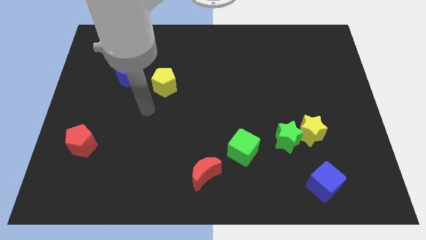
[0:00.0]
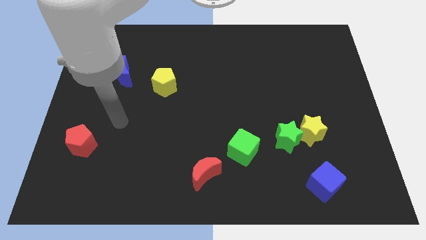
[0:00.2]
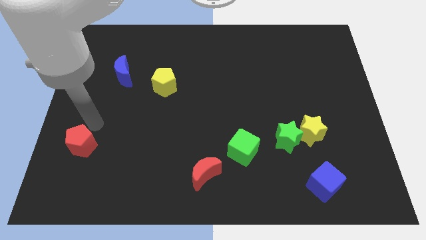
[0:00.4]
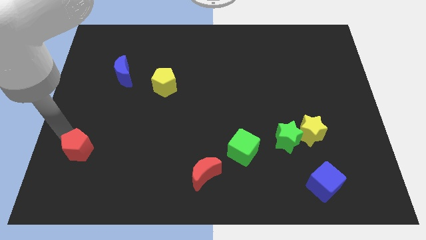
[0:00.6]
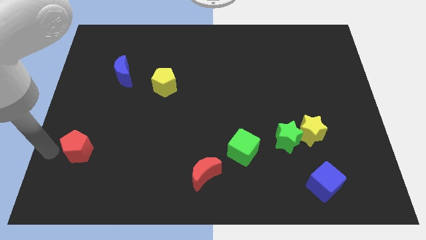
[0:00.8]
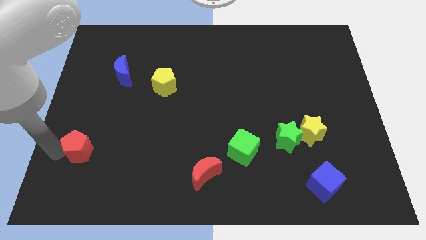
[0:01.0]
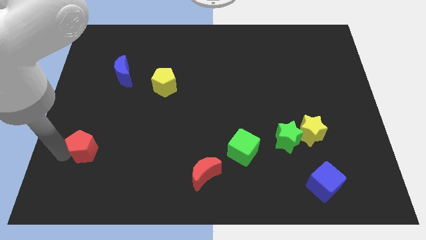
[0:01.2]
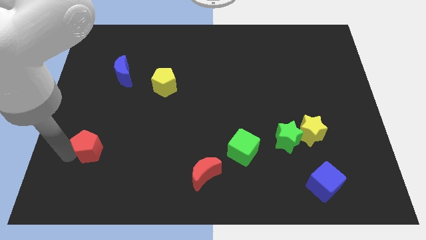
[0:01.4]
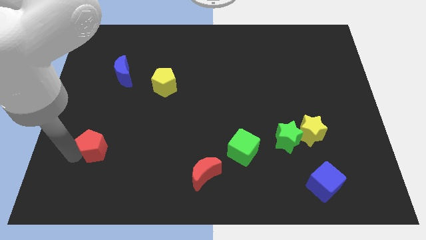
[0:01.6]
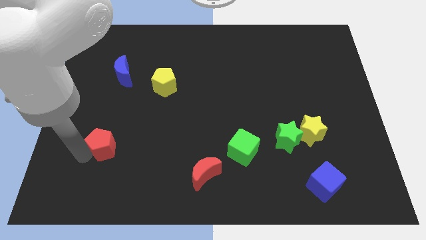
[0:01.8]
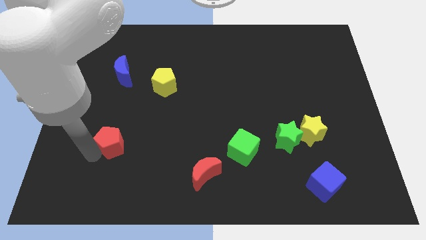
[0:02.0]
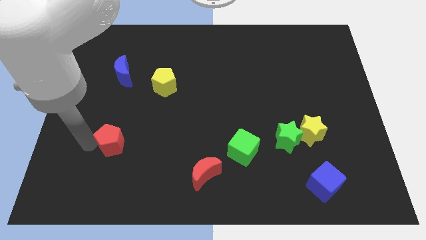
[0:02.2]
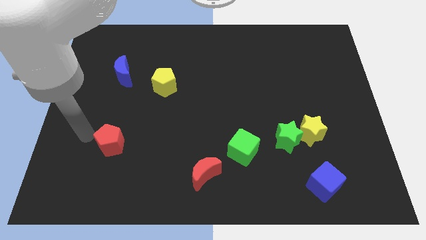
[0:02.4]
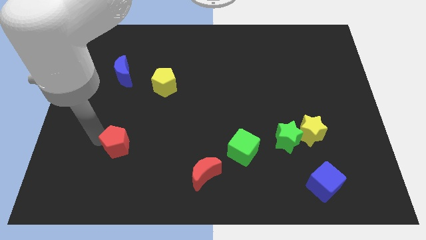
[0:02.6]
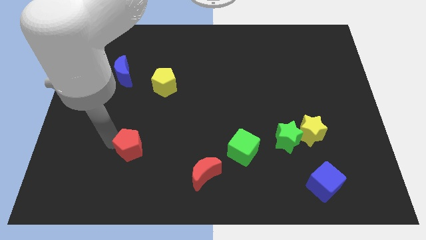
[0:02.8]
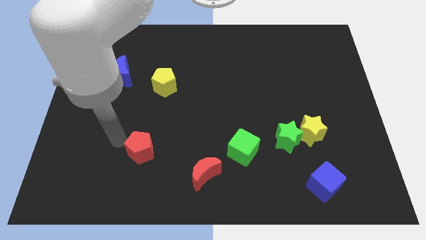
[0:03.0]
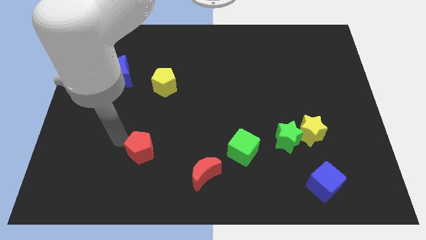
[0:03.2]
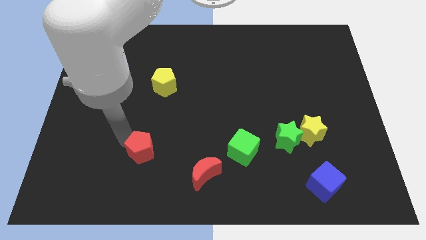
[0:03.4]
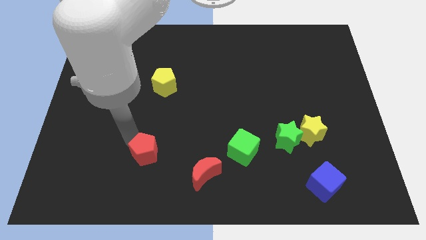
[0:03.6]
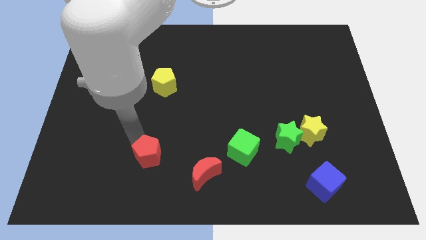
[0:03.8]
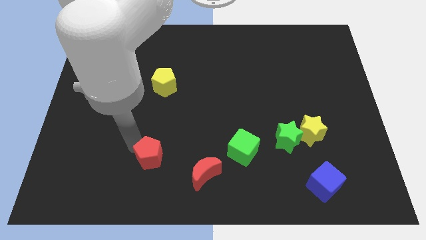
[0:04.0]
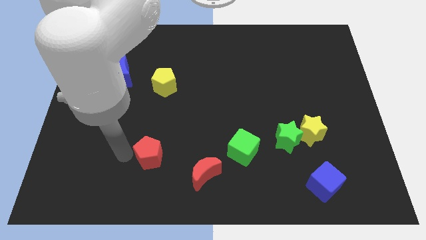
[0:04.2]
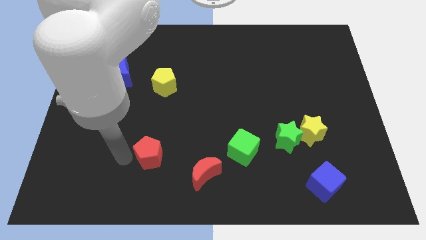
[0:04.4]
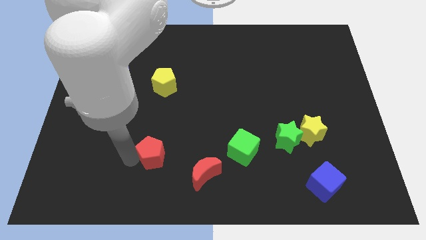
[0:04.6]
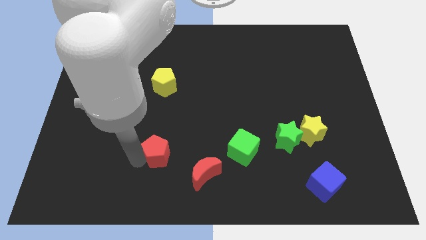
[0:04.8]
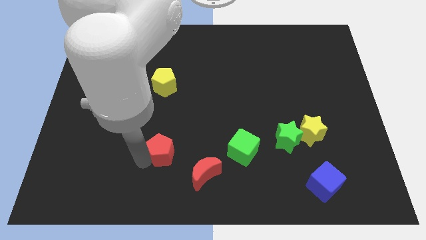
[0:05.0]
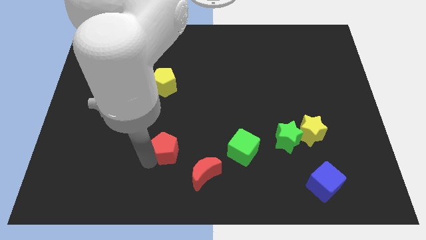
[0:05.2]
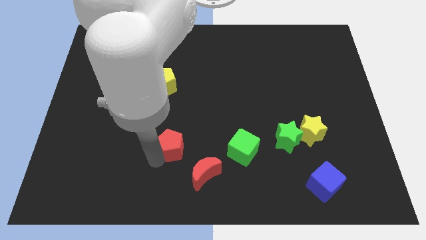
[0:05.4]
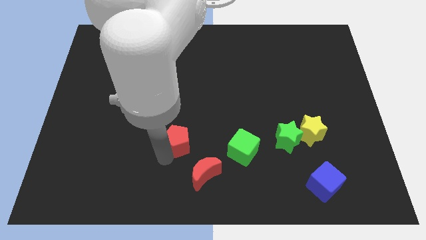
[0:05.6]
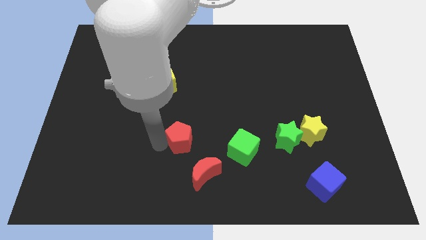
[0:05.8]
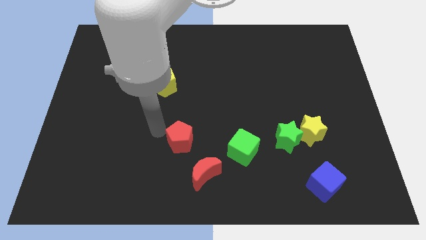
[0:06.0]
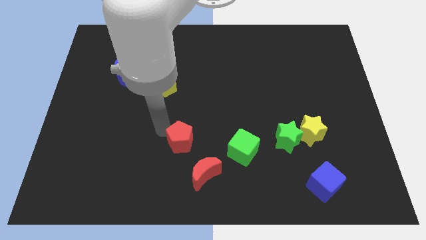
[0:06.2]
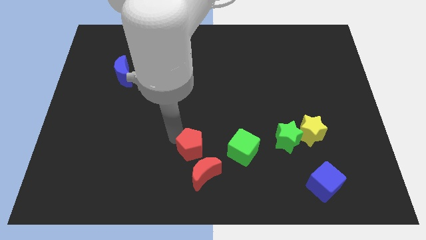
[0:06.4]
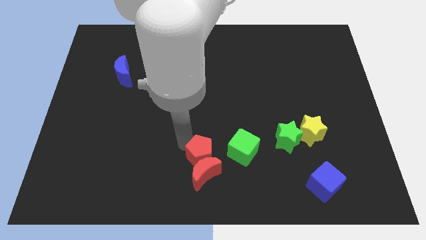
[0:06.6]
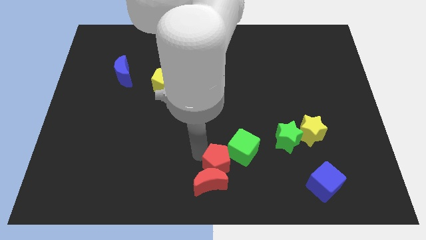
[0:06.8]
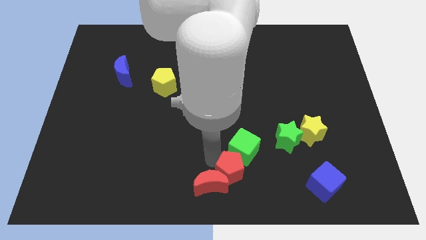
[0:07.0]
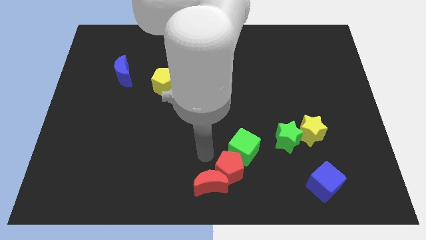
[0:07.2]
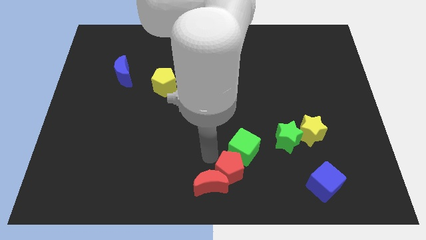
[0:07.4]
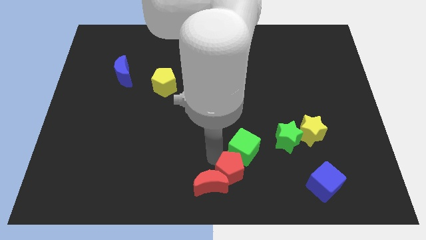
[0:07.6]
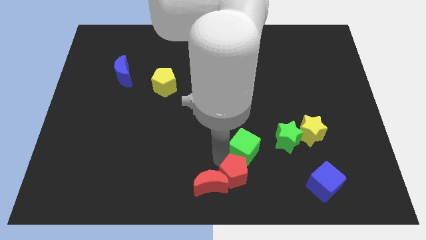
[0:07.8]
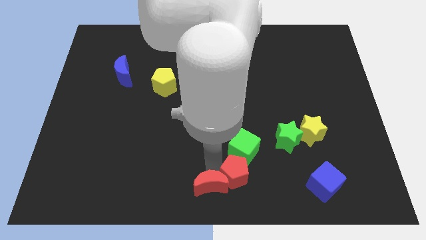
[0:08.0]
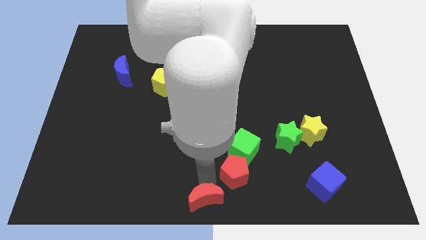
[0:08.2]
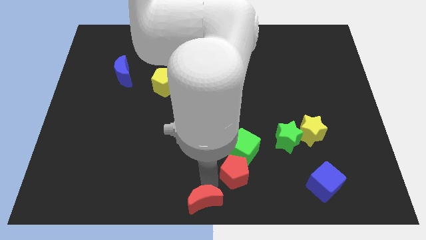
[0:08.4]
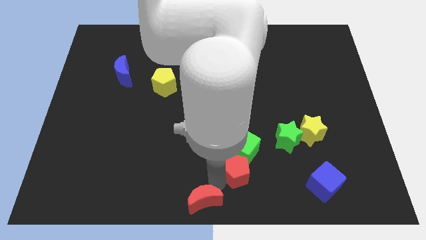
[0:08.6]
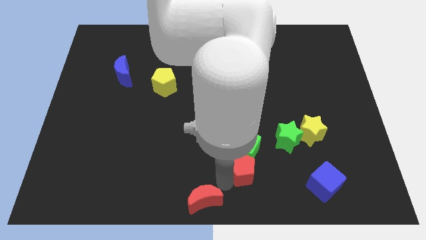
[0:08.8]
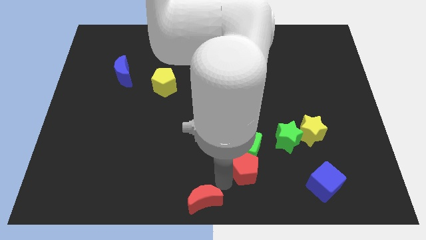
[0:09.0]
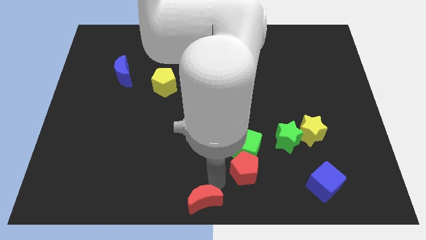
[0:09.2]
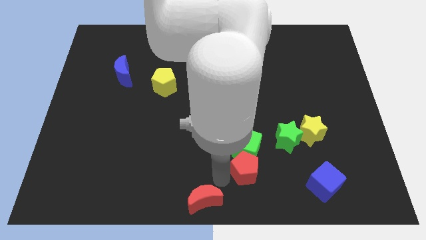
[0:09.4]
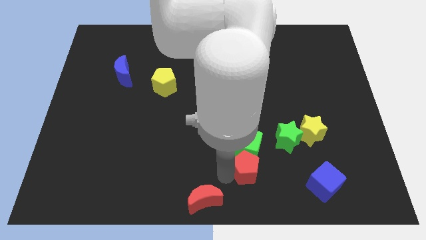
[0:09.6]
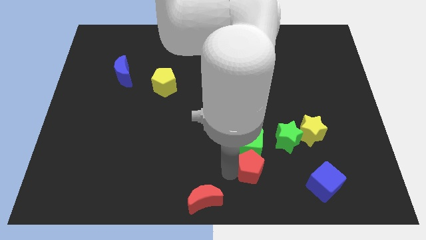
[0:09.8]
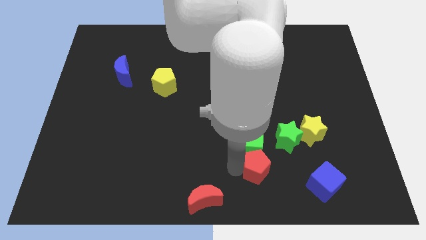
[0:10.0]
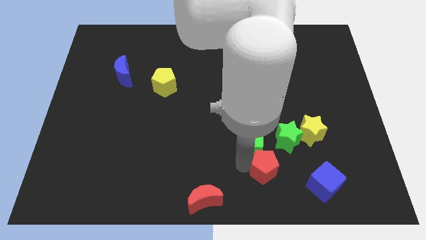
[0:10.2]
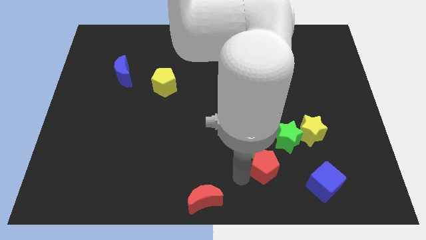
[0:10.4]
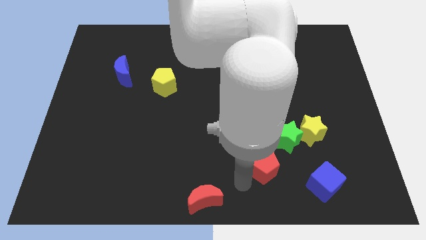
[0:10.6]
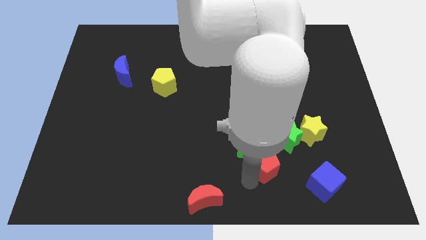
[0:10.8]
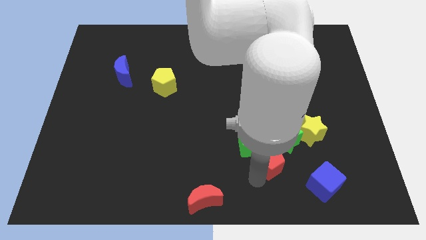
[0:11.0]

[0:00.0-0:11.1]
push the red pentagon to the bottom left of the yellow star

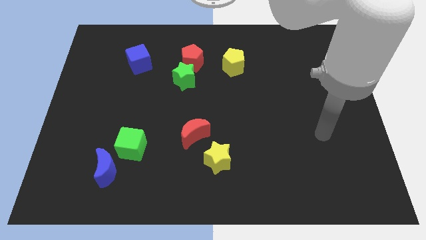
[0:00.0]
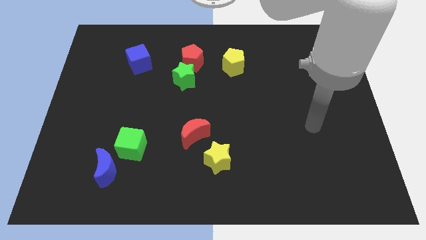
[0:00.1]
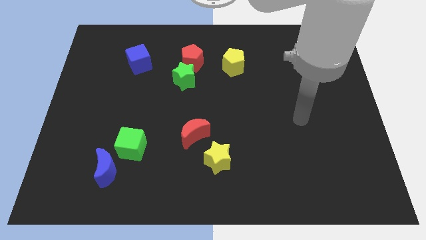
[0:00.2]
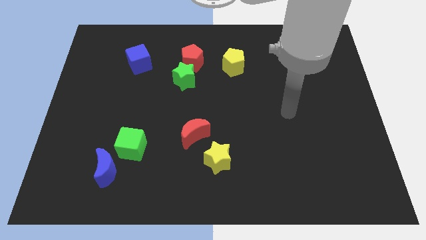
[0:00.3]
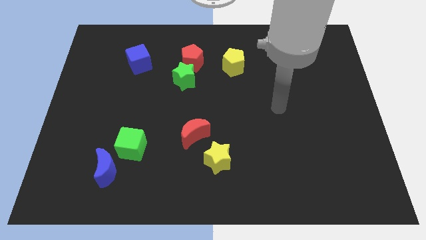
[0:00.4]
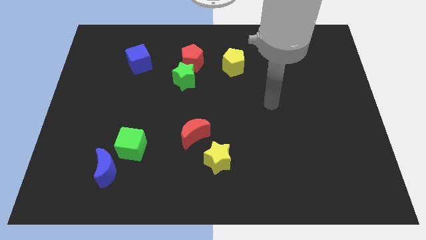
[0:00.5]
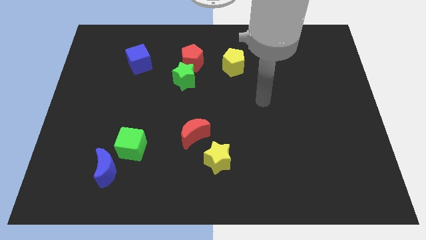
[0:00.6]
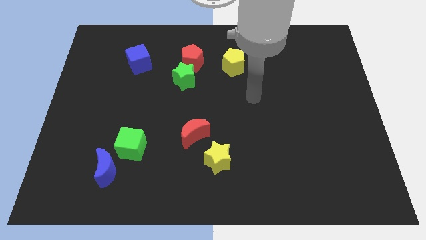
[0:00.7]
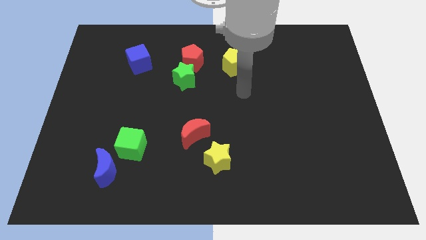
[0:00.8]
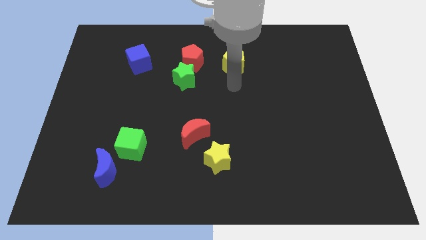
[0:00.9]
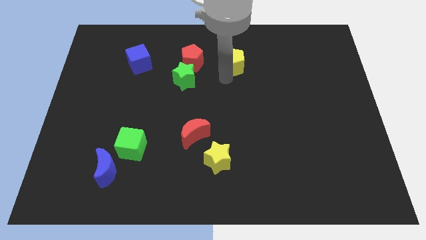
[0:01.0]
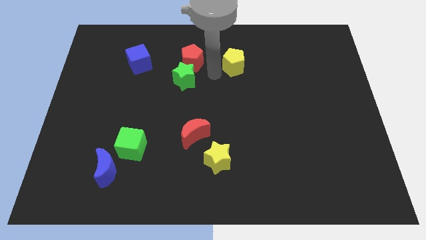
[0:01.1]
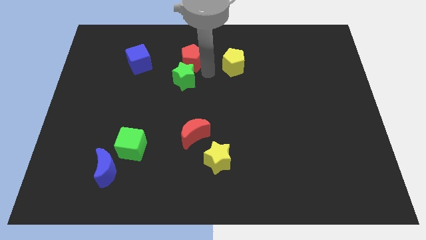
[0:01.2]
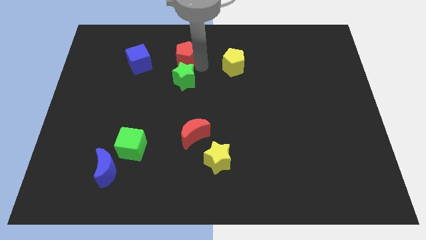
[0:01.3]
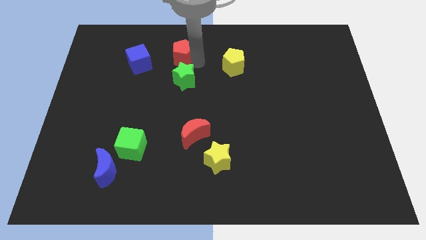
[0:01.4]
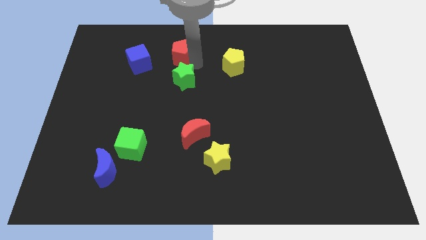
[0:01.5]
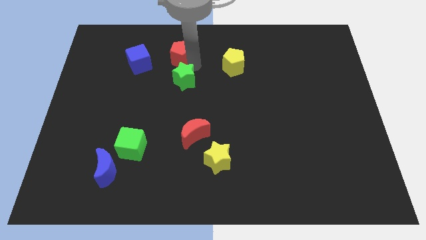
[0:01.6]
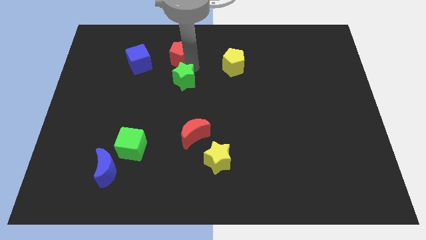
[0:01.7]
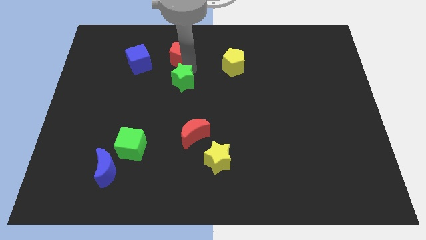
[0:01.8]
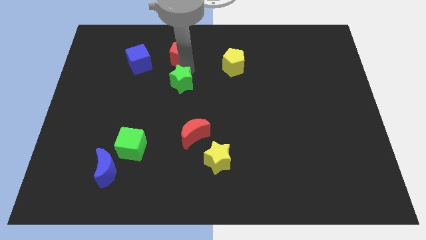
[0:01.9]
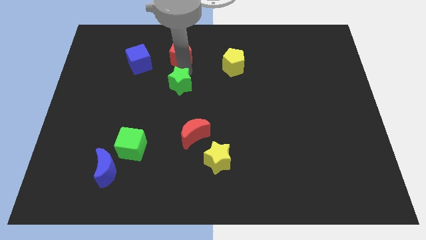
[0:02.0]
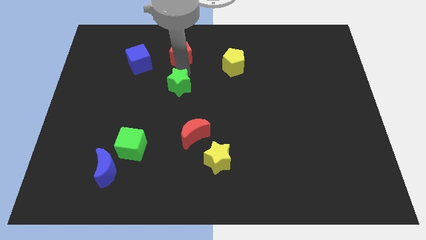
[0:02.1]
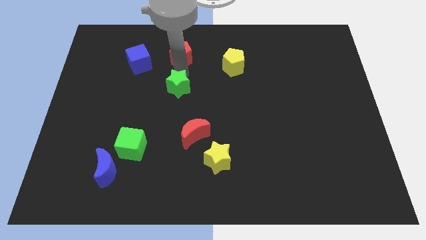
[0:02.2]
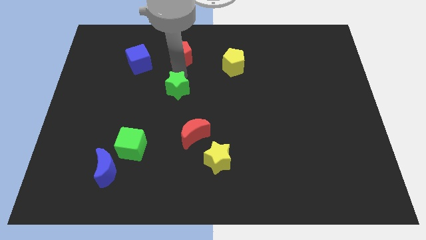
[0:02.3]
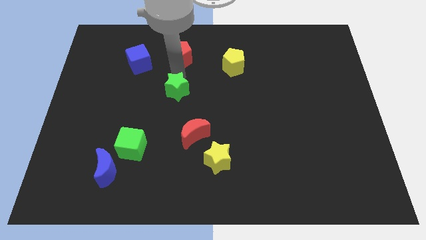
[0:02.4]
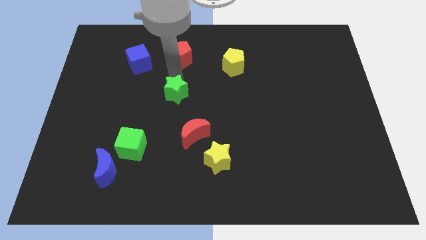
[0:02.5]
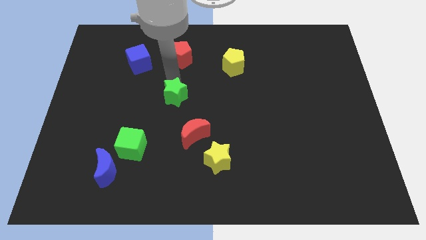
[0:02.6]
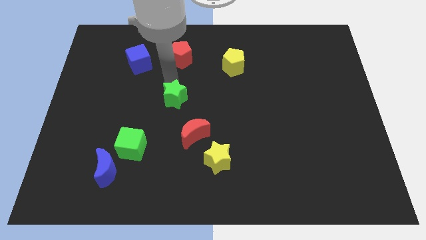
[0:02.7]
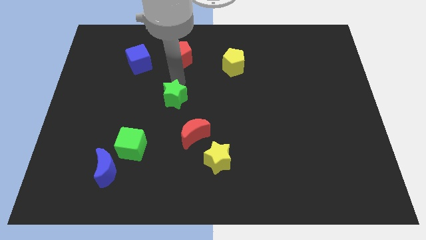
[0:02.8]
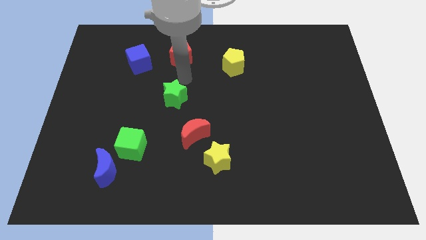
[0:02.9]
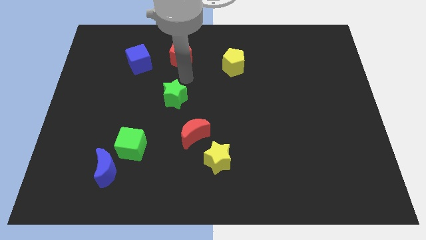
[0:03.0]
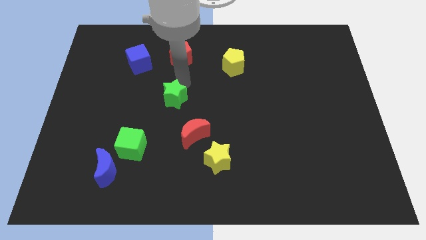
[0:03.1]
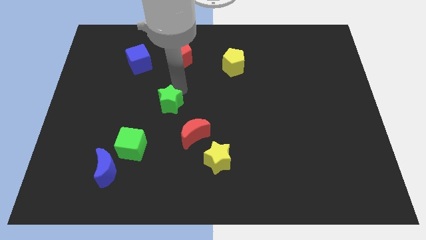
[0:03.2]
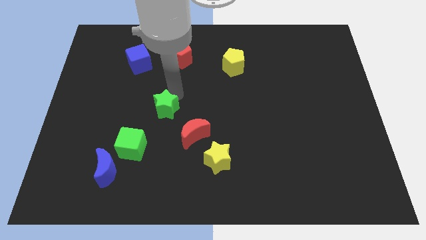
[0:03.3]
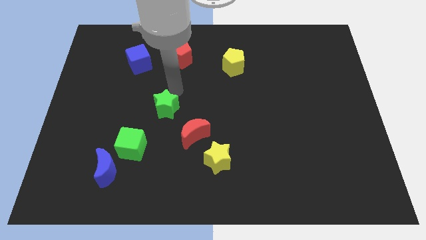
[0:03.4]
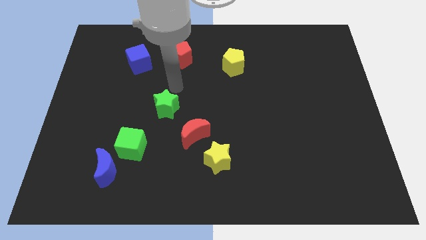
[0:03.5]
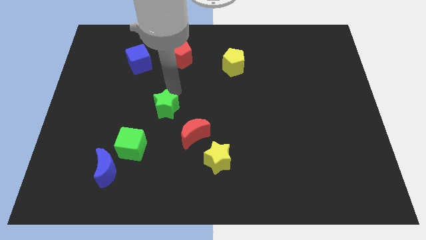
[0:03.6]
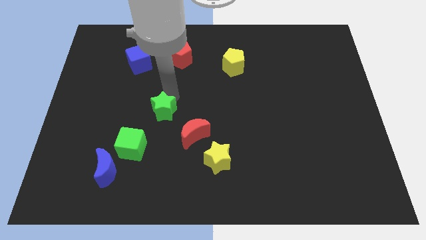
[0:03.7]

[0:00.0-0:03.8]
push the green star to the top right side of the green cube
